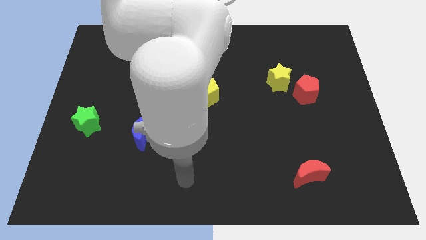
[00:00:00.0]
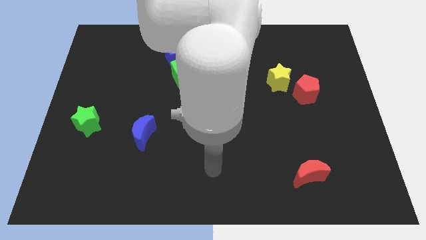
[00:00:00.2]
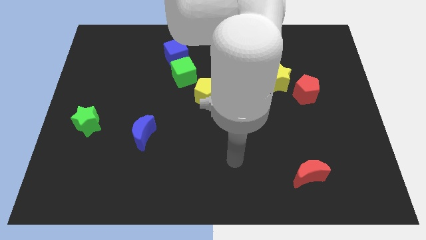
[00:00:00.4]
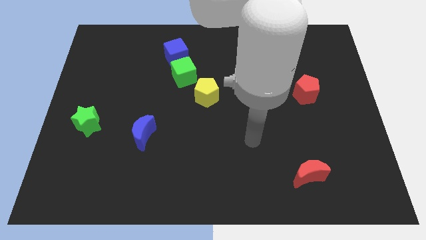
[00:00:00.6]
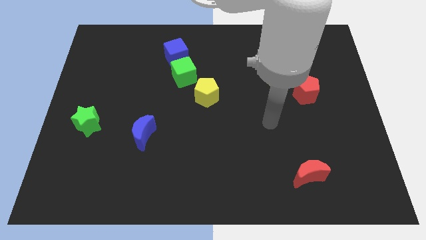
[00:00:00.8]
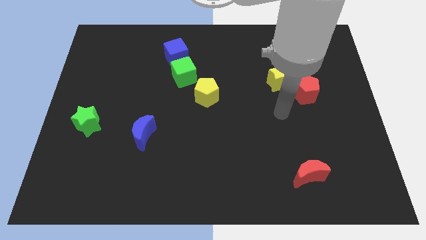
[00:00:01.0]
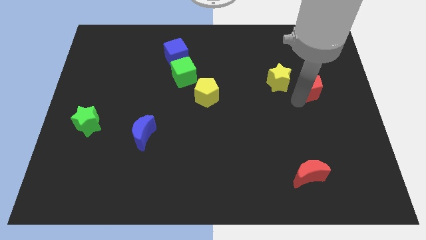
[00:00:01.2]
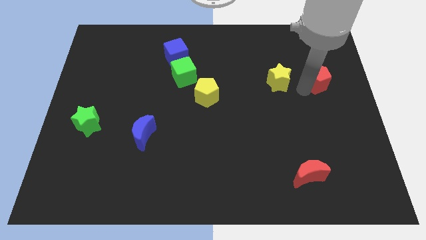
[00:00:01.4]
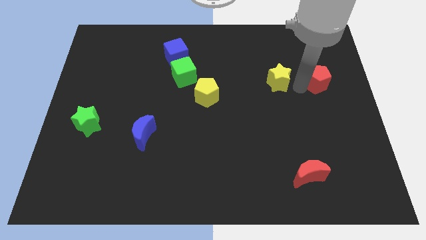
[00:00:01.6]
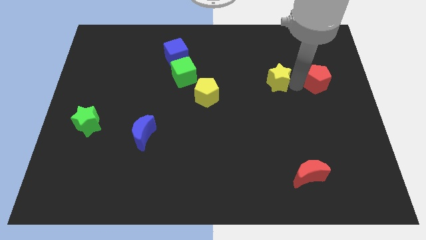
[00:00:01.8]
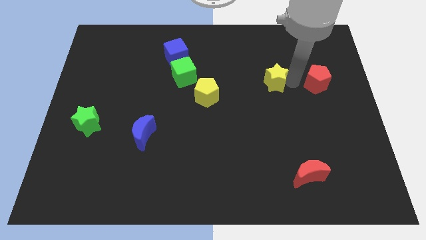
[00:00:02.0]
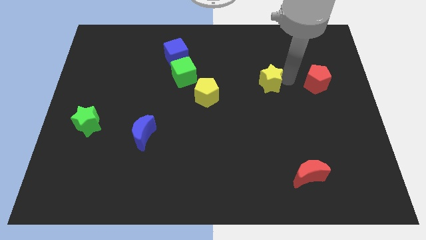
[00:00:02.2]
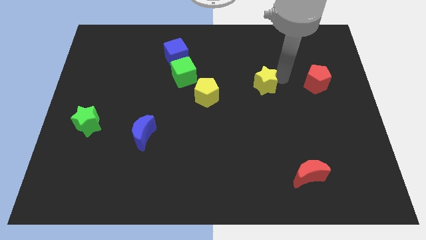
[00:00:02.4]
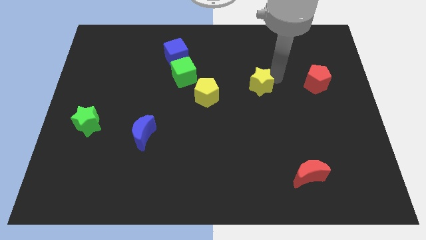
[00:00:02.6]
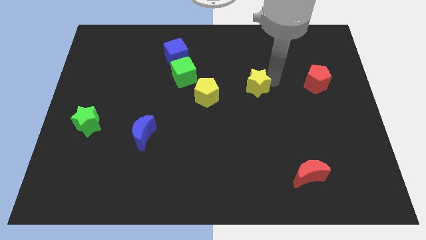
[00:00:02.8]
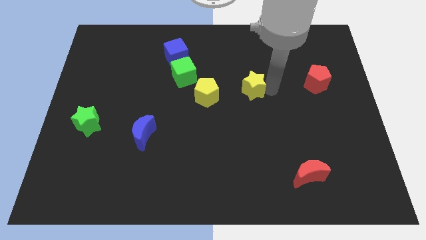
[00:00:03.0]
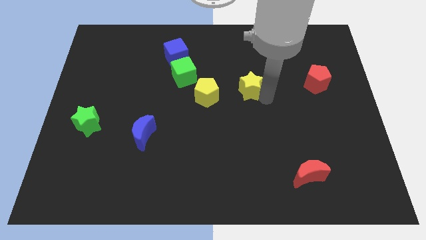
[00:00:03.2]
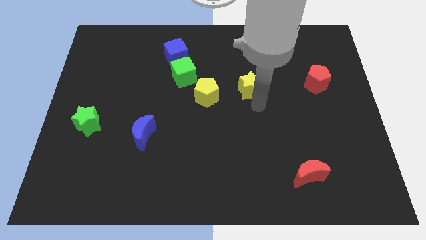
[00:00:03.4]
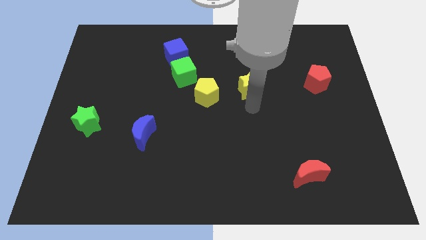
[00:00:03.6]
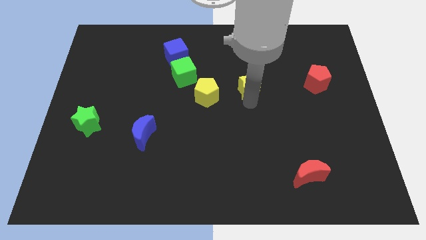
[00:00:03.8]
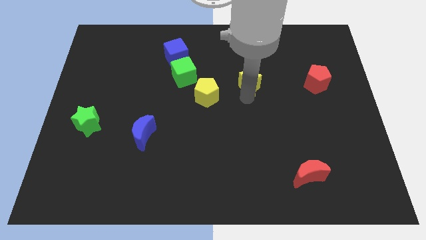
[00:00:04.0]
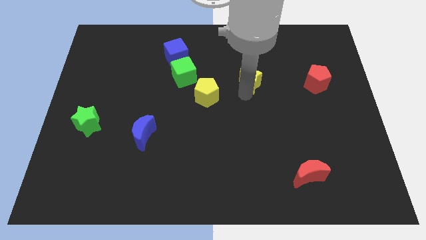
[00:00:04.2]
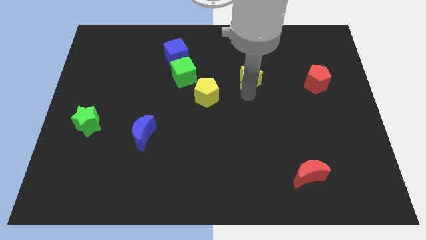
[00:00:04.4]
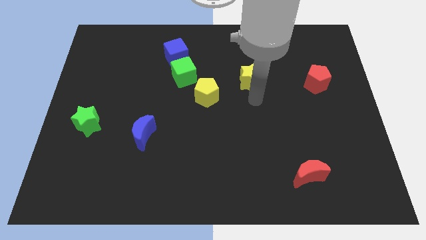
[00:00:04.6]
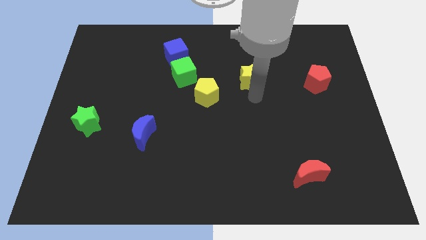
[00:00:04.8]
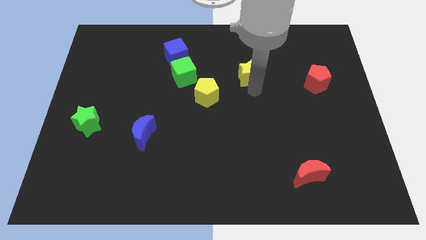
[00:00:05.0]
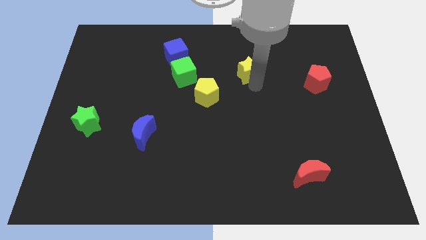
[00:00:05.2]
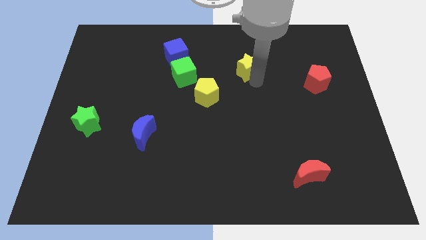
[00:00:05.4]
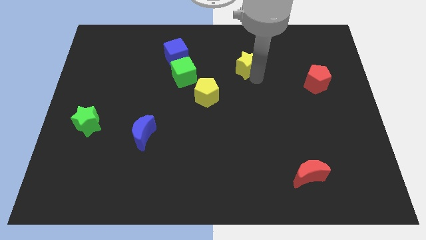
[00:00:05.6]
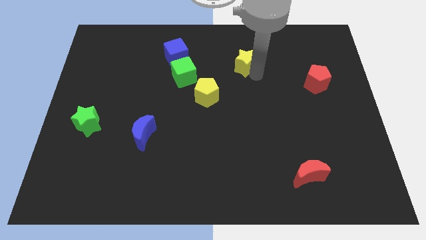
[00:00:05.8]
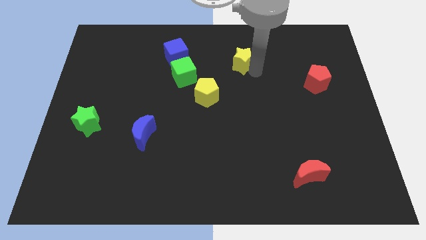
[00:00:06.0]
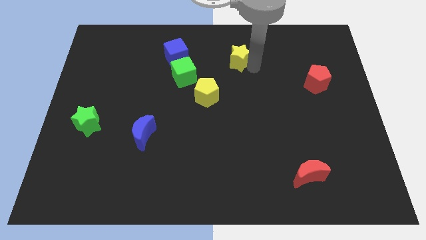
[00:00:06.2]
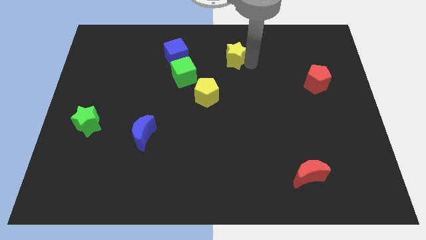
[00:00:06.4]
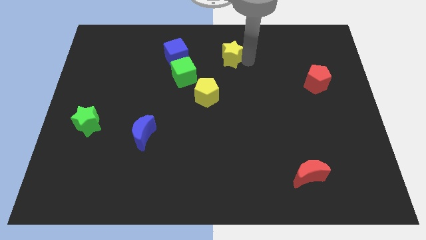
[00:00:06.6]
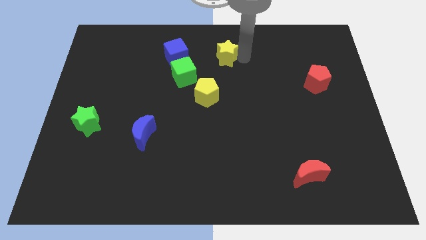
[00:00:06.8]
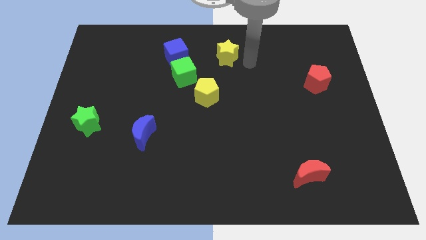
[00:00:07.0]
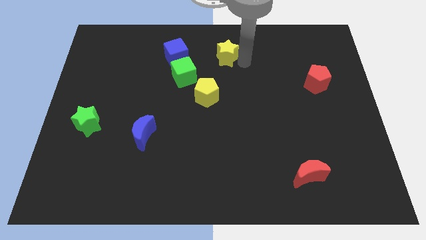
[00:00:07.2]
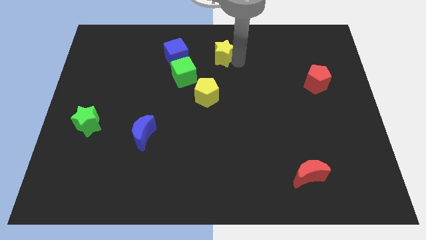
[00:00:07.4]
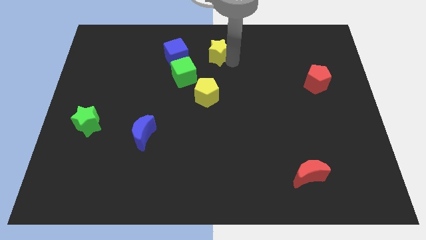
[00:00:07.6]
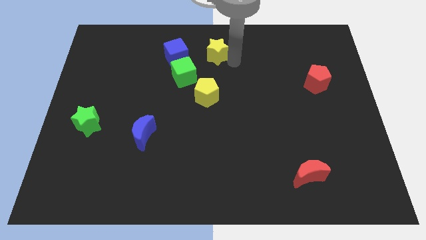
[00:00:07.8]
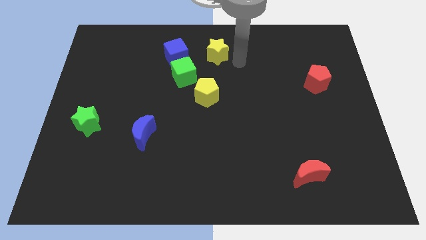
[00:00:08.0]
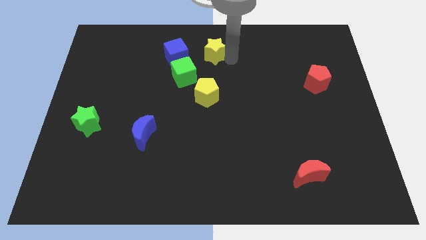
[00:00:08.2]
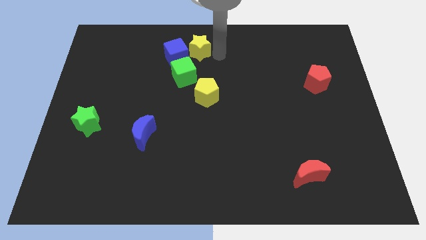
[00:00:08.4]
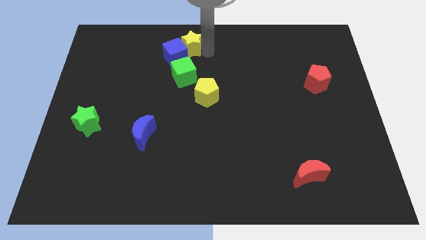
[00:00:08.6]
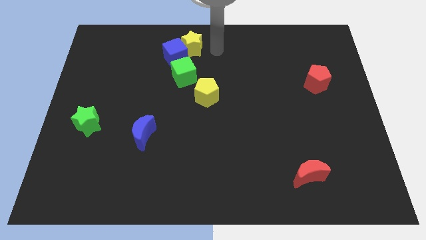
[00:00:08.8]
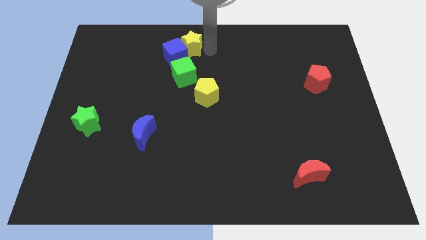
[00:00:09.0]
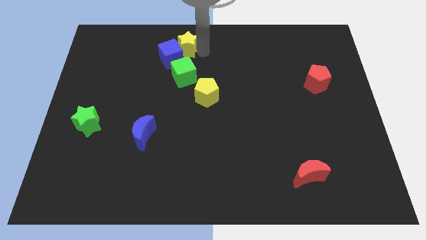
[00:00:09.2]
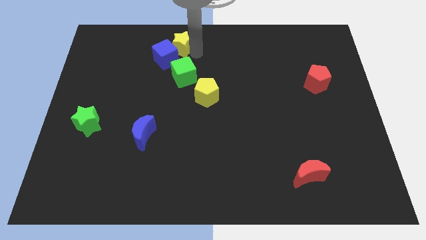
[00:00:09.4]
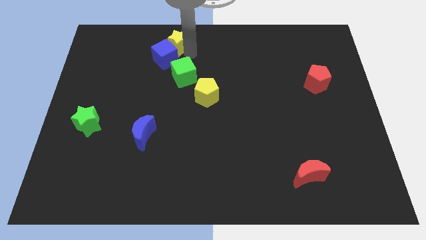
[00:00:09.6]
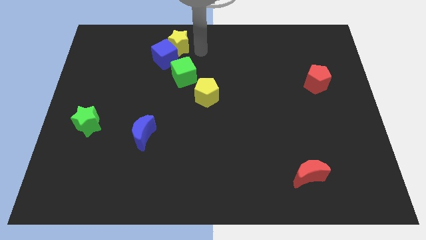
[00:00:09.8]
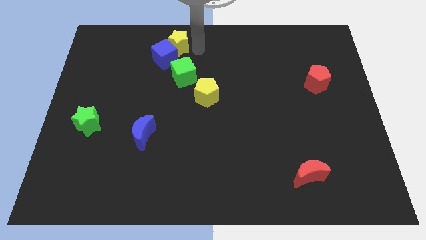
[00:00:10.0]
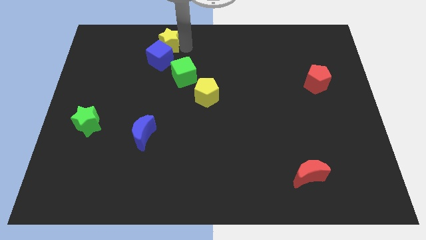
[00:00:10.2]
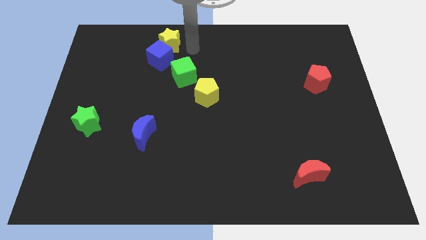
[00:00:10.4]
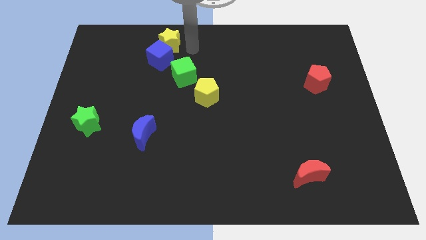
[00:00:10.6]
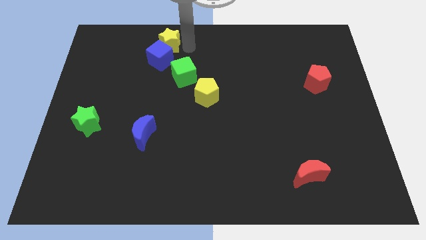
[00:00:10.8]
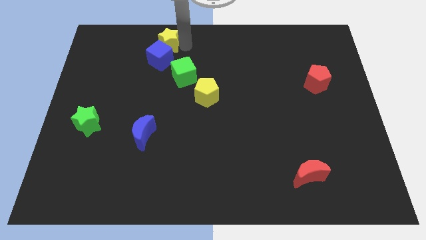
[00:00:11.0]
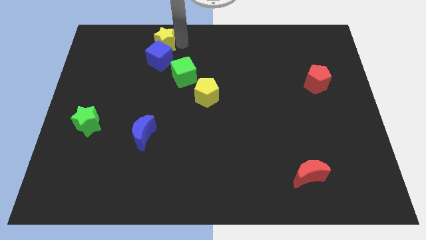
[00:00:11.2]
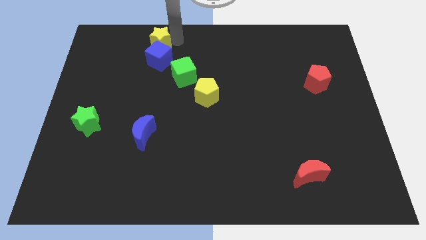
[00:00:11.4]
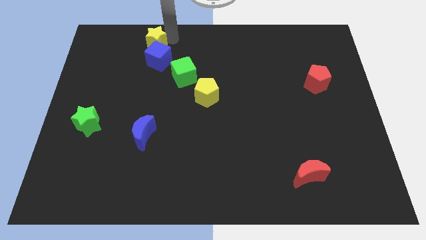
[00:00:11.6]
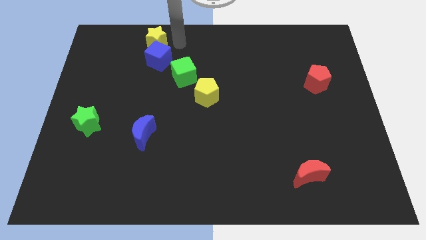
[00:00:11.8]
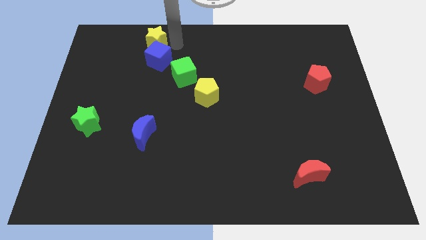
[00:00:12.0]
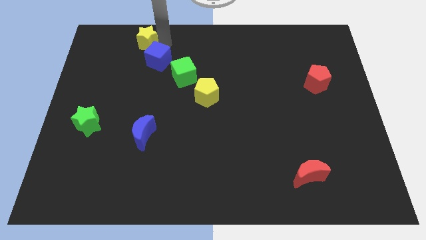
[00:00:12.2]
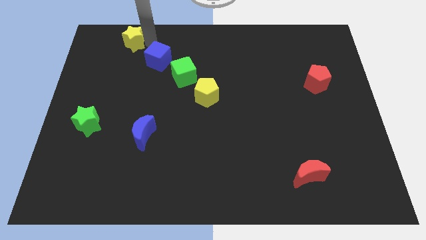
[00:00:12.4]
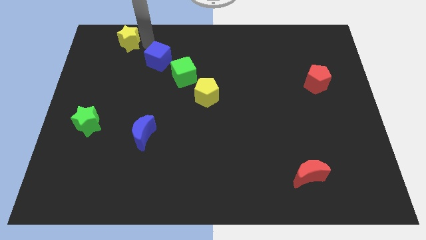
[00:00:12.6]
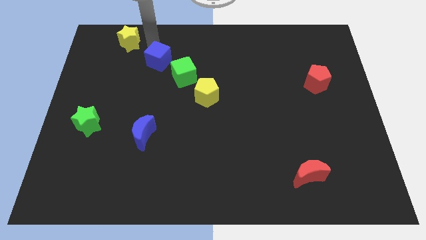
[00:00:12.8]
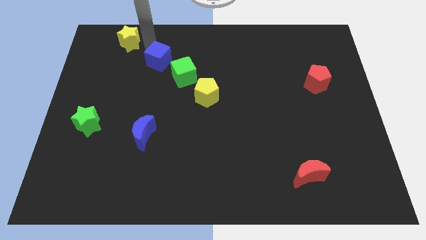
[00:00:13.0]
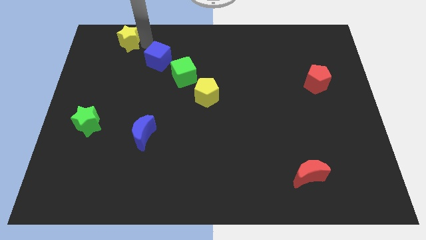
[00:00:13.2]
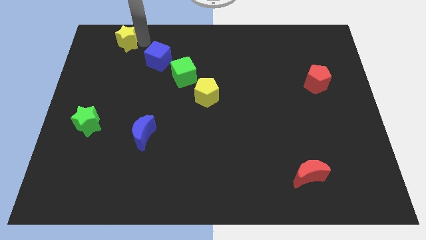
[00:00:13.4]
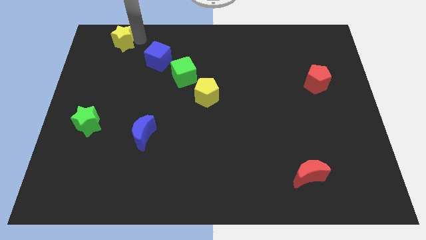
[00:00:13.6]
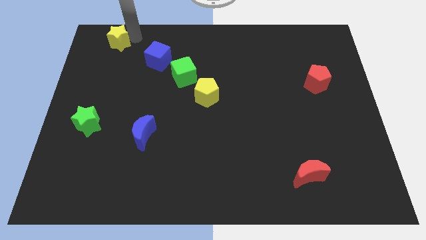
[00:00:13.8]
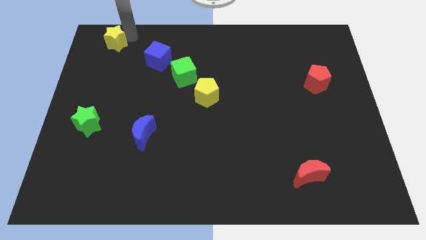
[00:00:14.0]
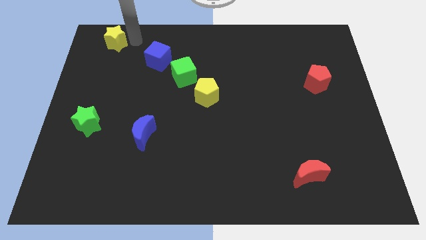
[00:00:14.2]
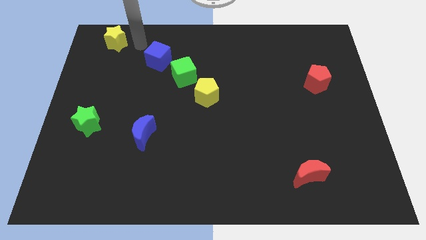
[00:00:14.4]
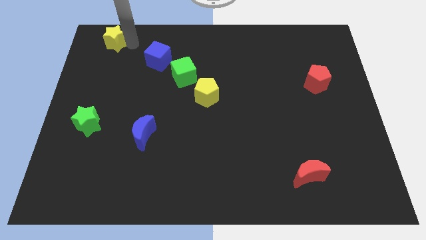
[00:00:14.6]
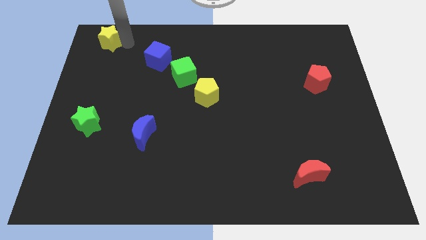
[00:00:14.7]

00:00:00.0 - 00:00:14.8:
put the yellow star to the top left corner

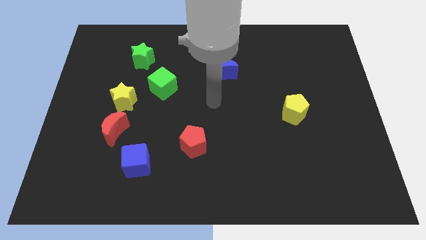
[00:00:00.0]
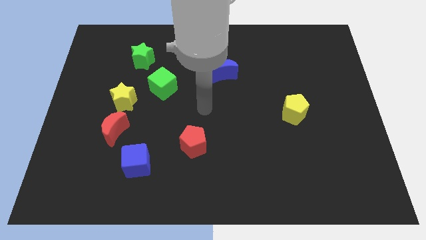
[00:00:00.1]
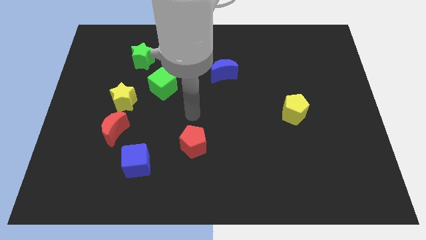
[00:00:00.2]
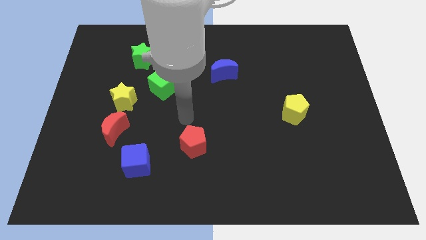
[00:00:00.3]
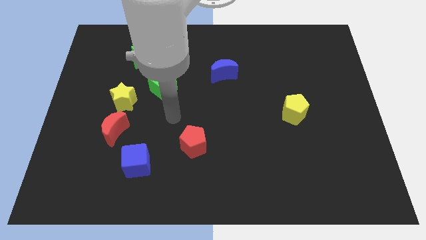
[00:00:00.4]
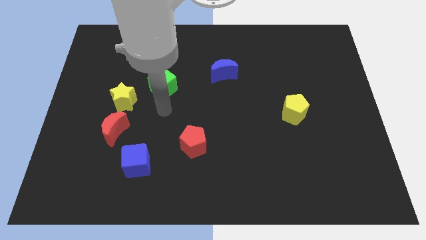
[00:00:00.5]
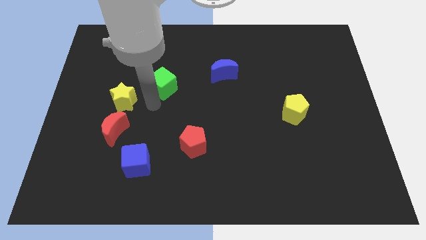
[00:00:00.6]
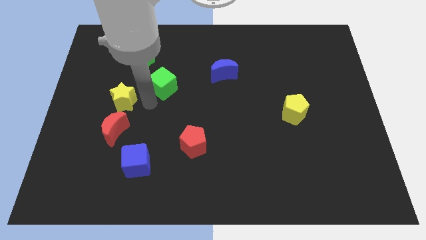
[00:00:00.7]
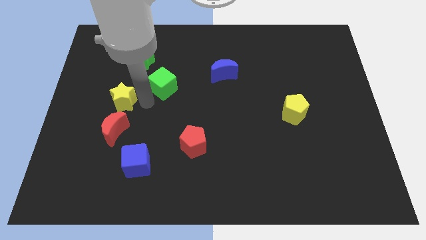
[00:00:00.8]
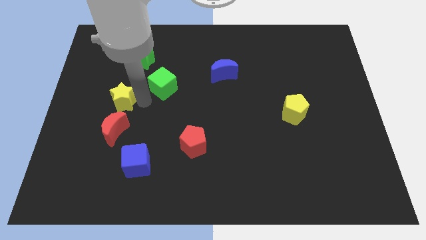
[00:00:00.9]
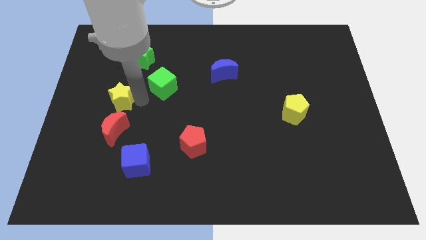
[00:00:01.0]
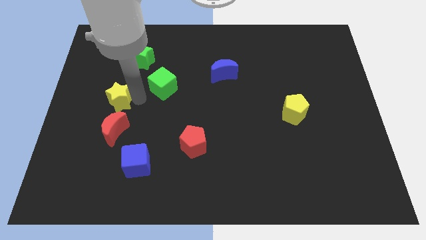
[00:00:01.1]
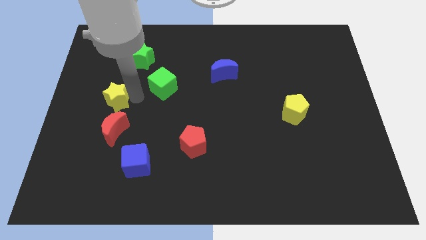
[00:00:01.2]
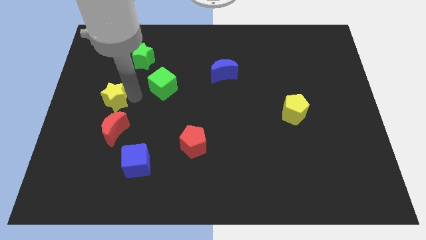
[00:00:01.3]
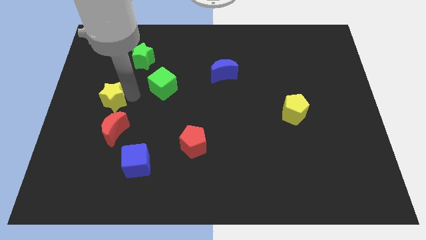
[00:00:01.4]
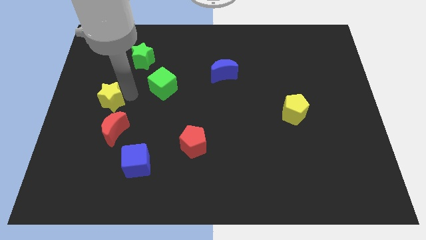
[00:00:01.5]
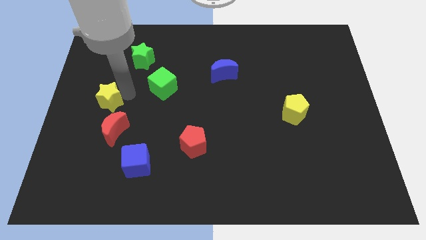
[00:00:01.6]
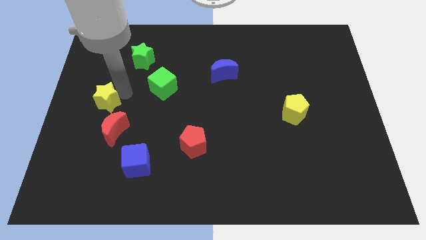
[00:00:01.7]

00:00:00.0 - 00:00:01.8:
push the yellow star to the left side of the board
